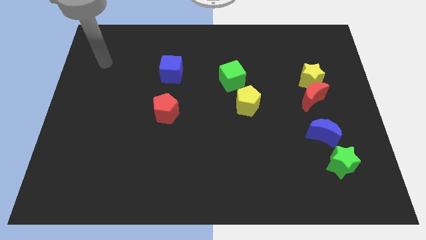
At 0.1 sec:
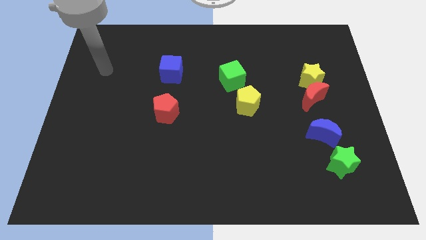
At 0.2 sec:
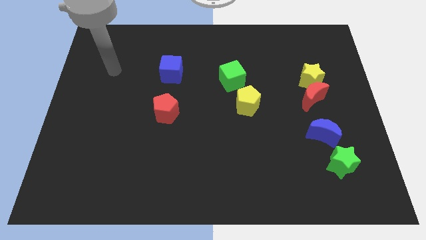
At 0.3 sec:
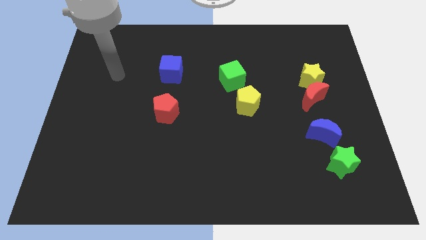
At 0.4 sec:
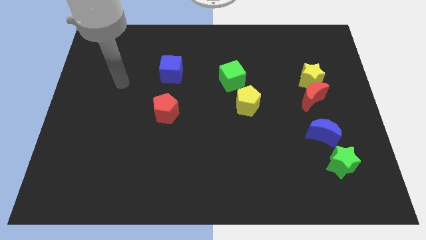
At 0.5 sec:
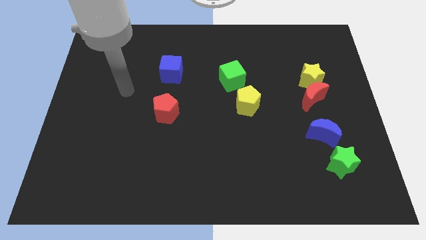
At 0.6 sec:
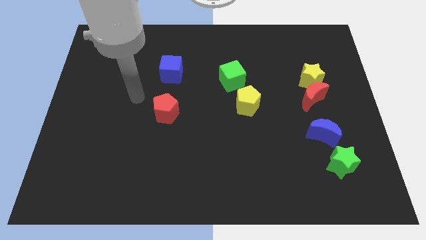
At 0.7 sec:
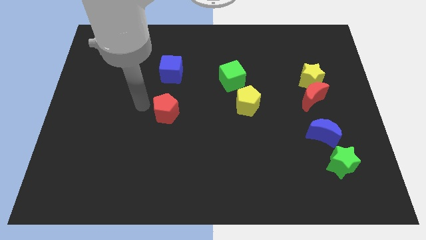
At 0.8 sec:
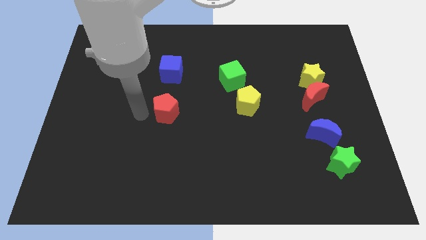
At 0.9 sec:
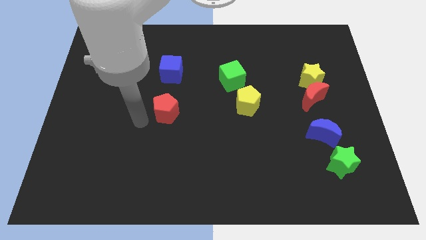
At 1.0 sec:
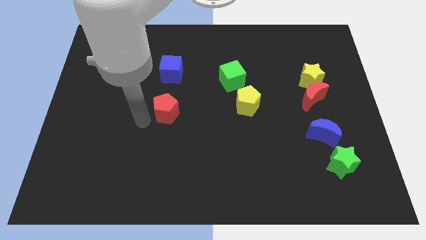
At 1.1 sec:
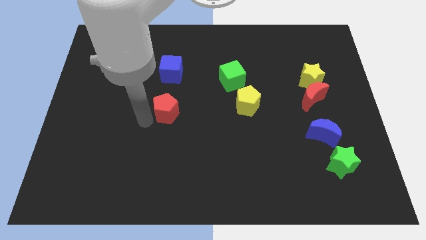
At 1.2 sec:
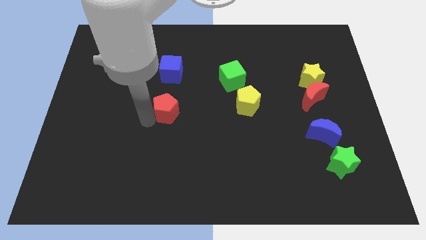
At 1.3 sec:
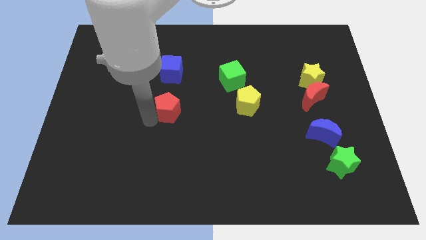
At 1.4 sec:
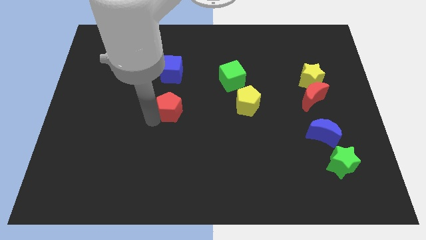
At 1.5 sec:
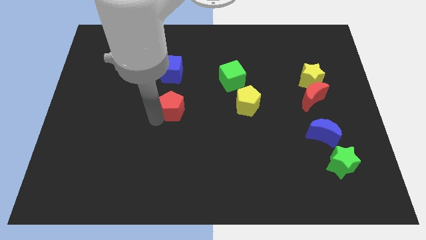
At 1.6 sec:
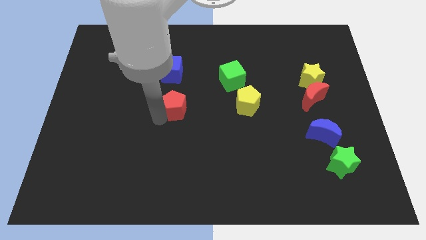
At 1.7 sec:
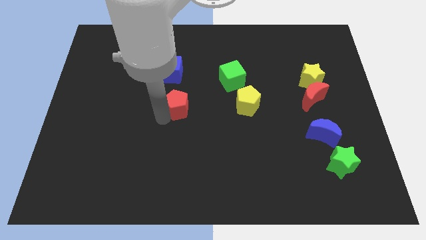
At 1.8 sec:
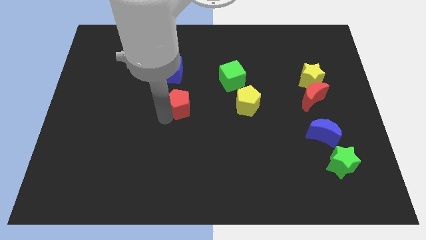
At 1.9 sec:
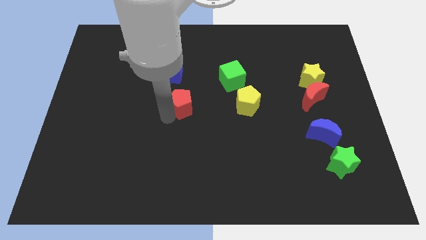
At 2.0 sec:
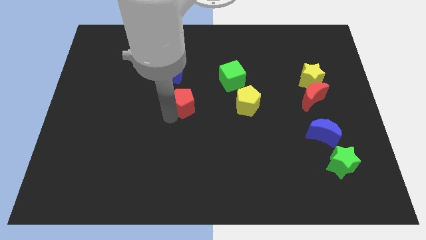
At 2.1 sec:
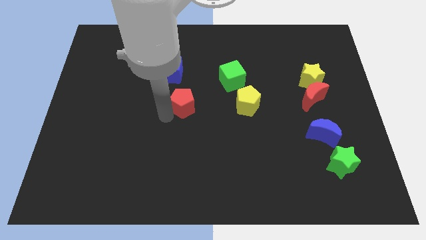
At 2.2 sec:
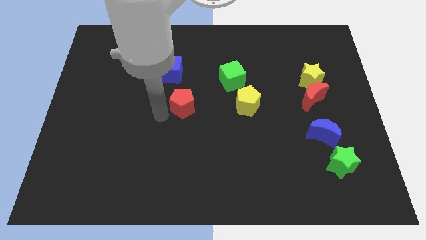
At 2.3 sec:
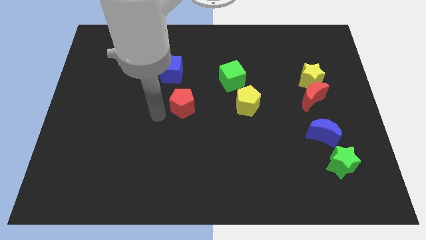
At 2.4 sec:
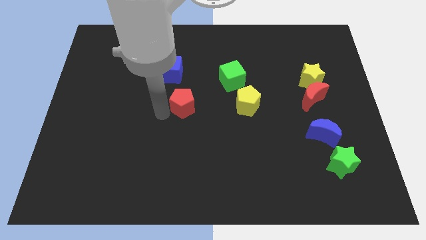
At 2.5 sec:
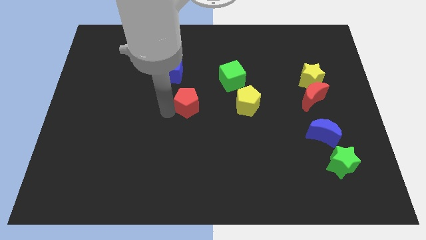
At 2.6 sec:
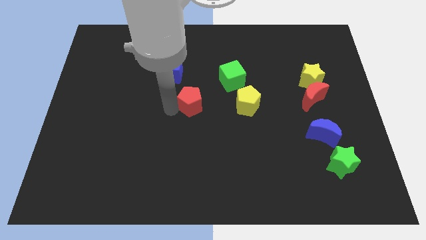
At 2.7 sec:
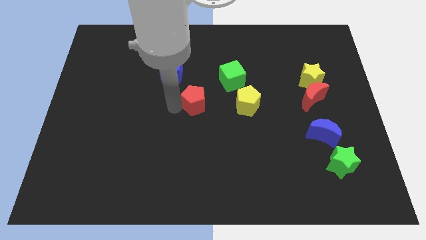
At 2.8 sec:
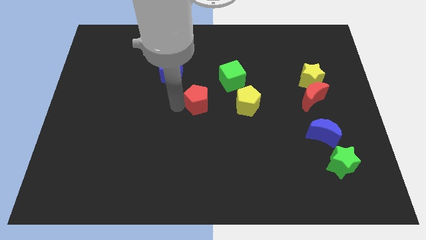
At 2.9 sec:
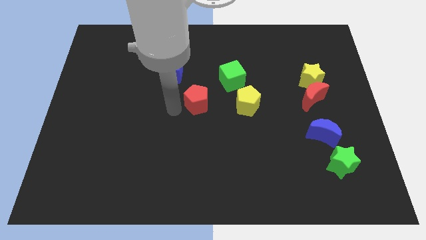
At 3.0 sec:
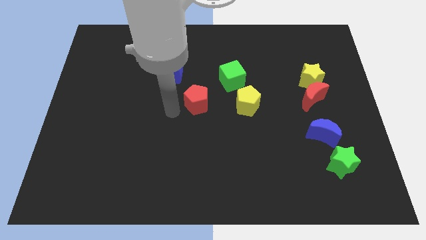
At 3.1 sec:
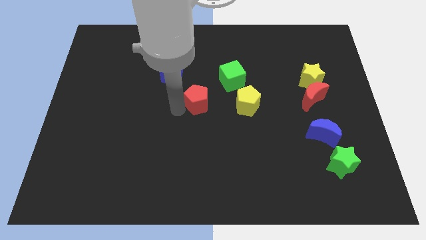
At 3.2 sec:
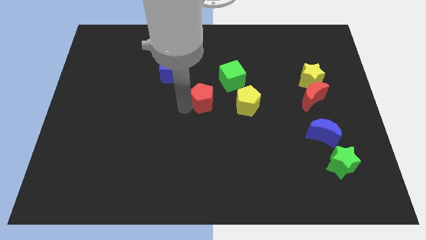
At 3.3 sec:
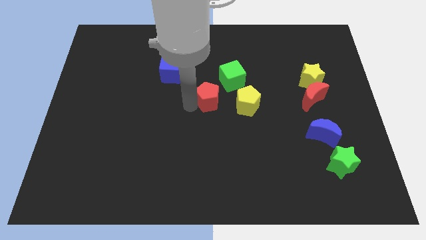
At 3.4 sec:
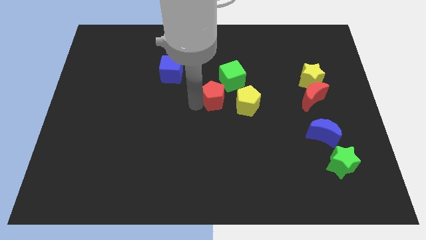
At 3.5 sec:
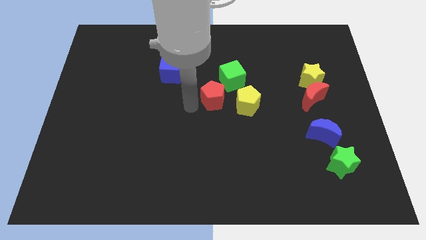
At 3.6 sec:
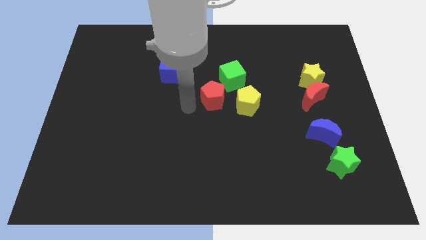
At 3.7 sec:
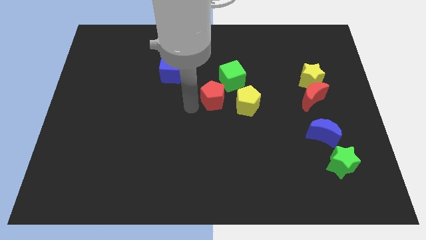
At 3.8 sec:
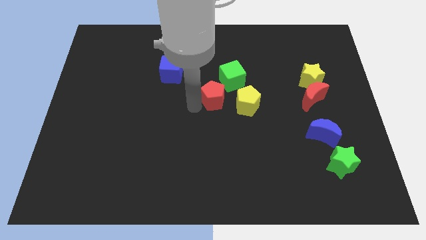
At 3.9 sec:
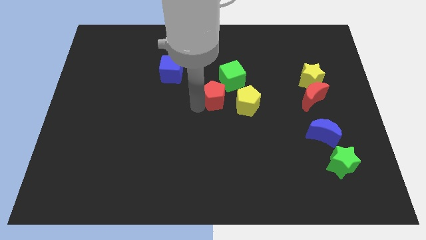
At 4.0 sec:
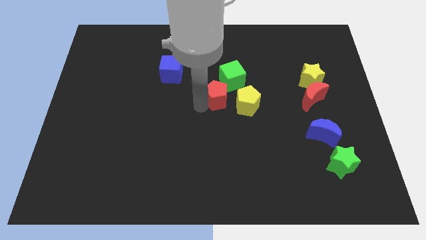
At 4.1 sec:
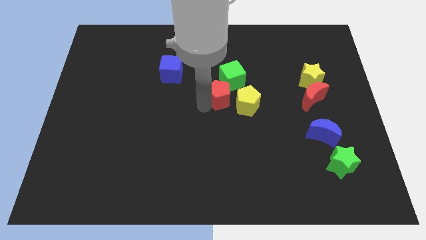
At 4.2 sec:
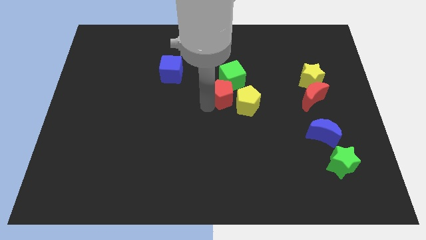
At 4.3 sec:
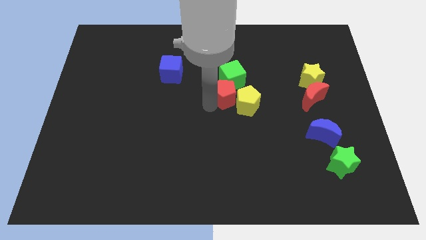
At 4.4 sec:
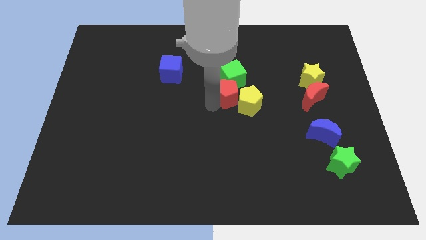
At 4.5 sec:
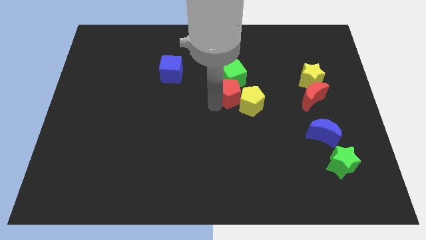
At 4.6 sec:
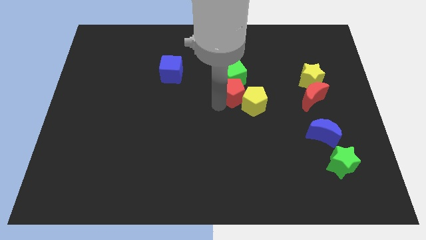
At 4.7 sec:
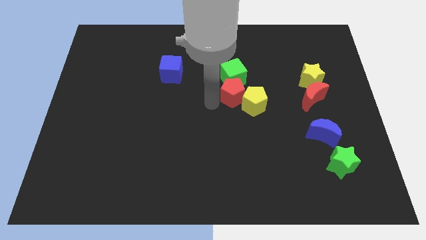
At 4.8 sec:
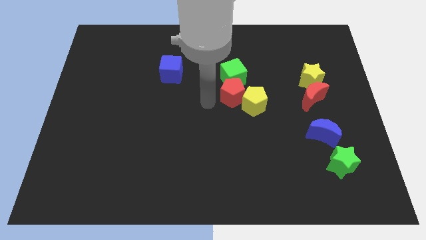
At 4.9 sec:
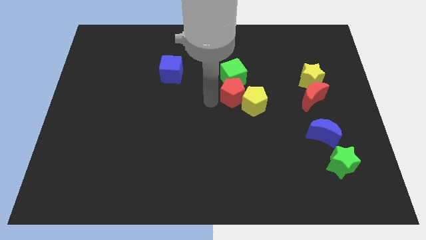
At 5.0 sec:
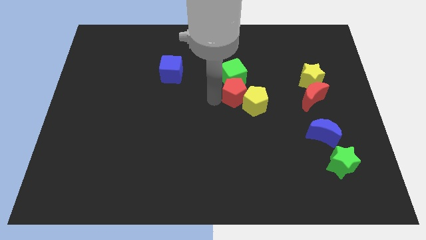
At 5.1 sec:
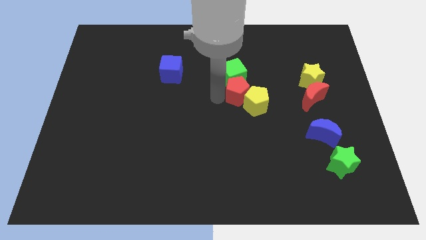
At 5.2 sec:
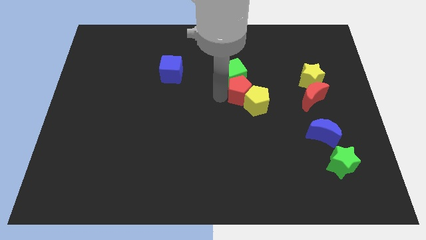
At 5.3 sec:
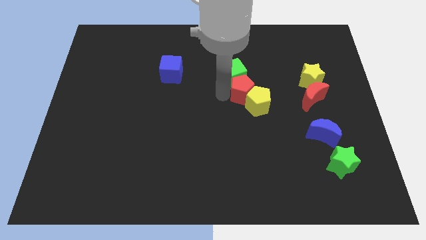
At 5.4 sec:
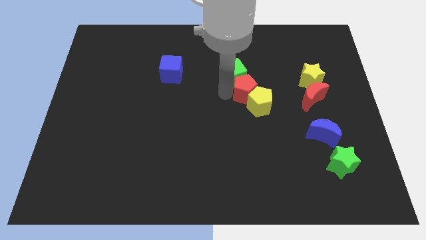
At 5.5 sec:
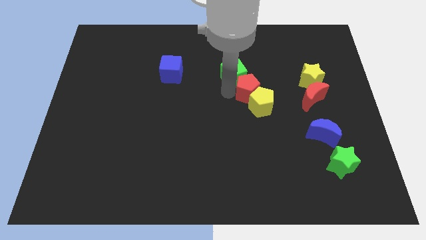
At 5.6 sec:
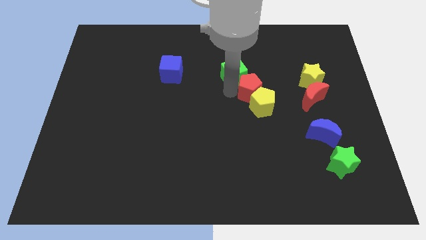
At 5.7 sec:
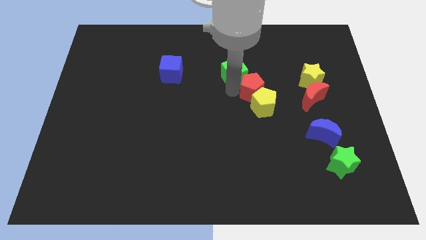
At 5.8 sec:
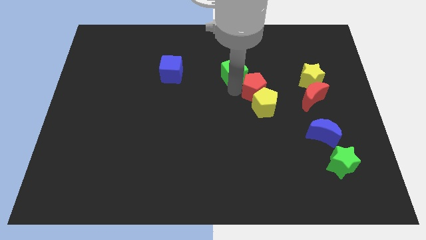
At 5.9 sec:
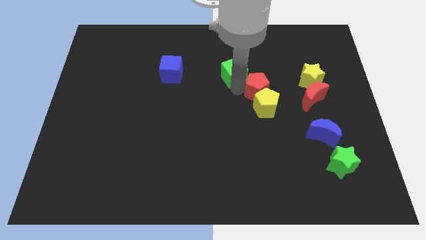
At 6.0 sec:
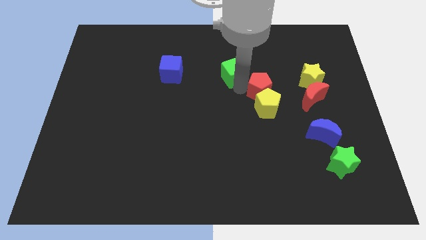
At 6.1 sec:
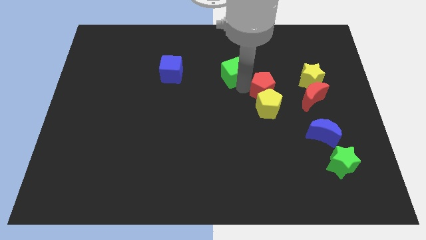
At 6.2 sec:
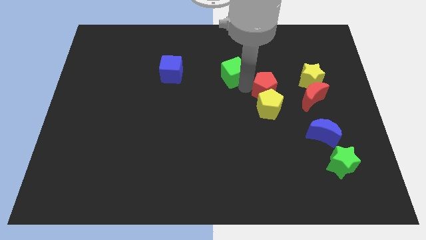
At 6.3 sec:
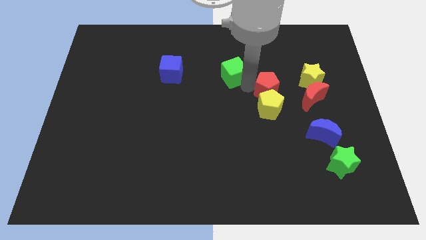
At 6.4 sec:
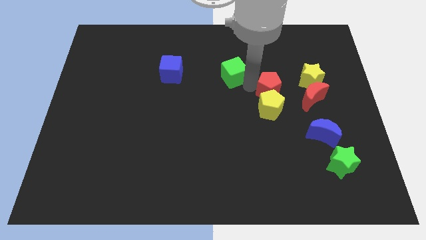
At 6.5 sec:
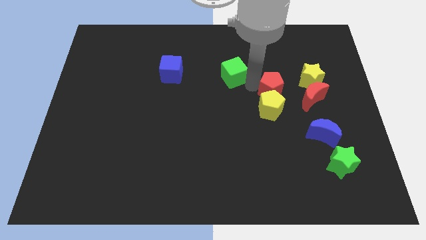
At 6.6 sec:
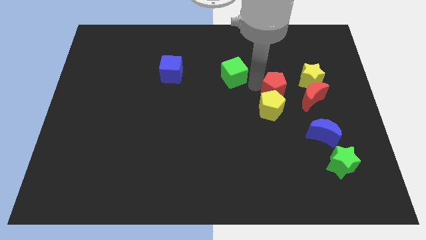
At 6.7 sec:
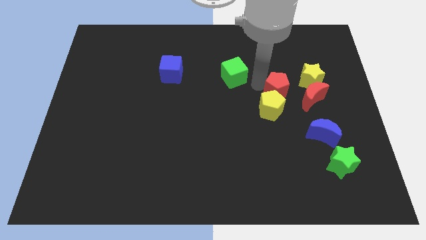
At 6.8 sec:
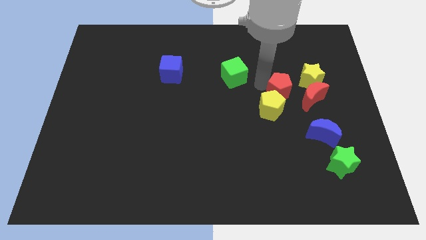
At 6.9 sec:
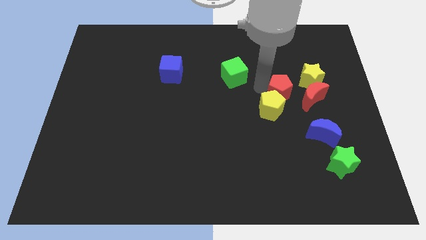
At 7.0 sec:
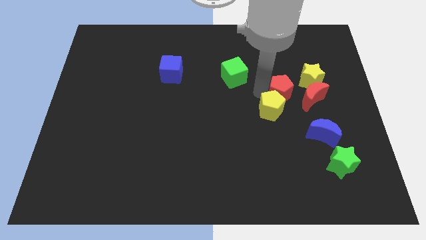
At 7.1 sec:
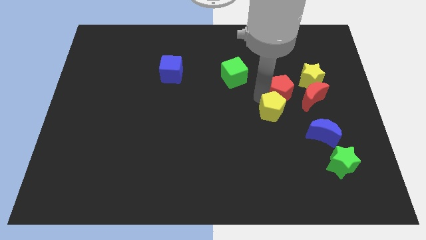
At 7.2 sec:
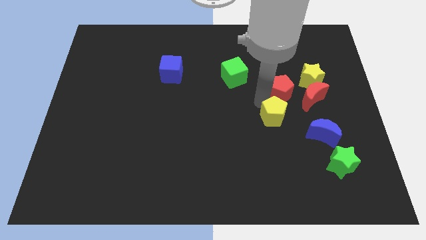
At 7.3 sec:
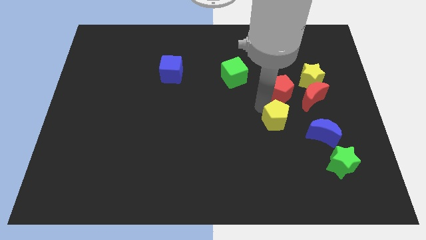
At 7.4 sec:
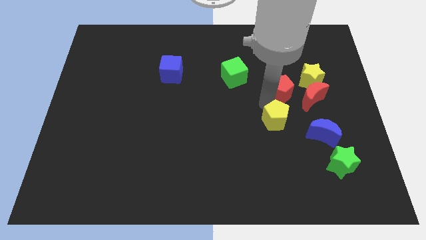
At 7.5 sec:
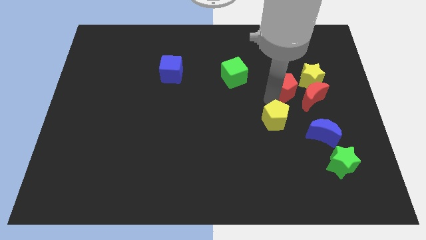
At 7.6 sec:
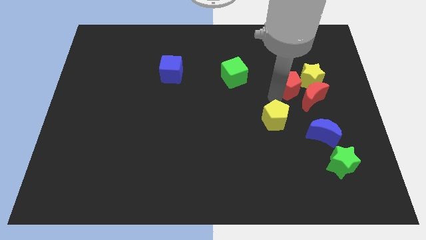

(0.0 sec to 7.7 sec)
push the red pentagon close to the yellow star

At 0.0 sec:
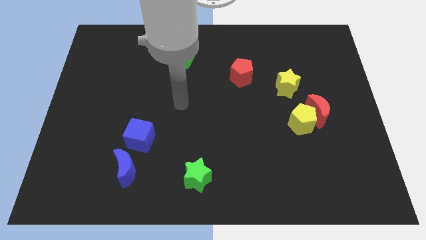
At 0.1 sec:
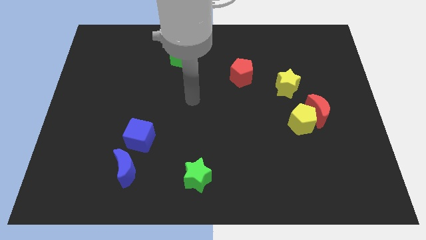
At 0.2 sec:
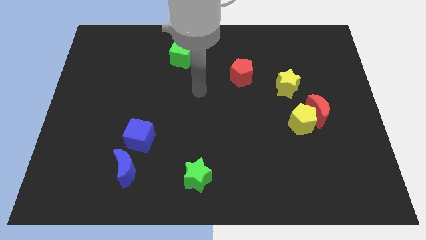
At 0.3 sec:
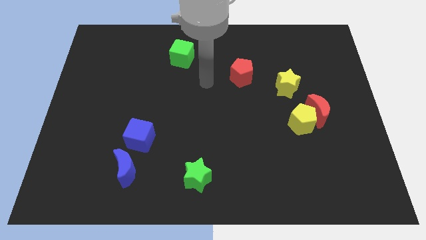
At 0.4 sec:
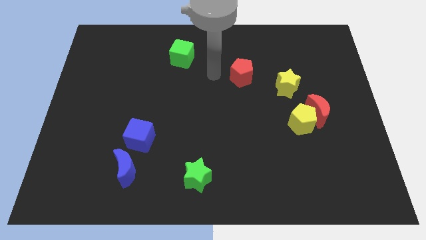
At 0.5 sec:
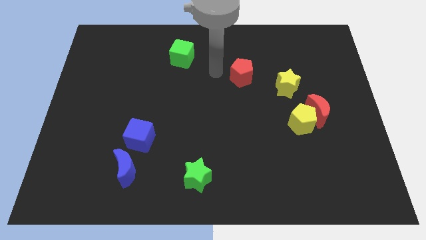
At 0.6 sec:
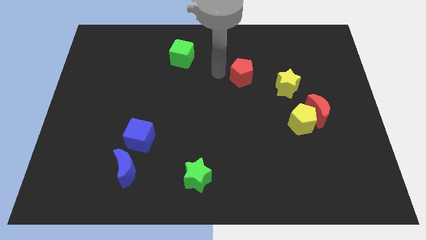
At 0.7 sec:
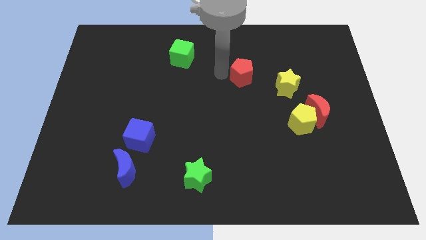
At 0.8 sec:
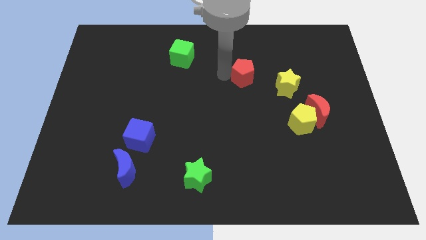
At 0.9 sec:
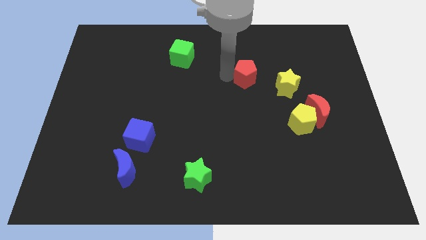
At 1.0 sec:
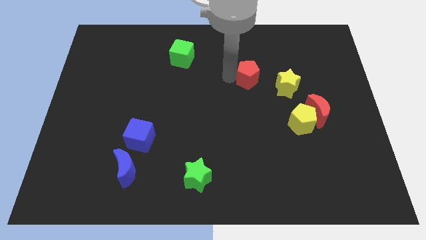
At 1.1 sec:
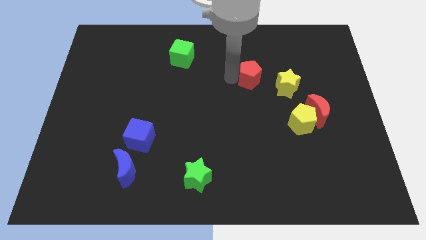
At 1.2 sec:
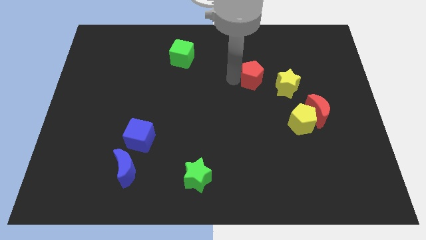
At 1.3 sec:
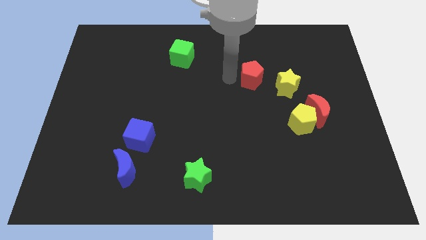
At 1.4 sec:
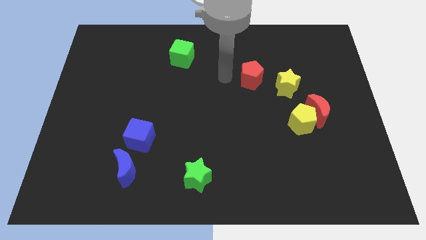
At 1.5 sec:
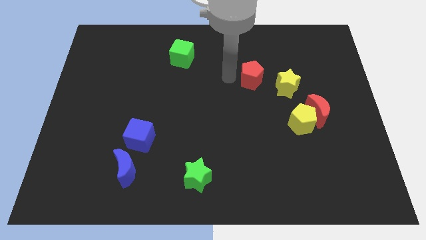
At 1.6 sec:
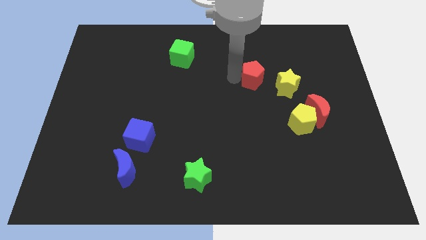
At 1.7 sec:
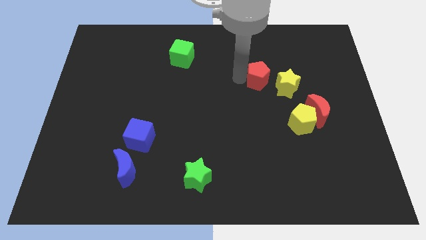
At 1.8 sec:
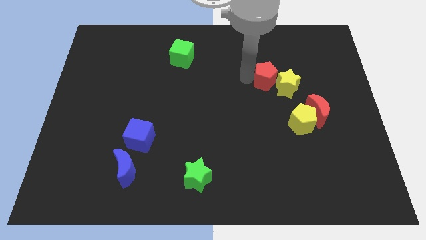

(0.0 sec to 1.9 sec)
move the red pentagon close to the yellow star
